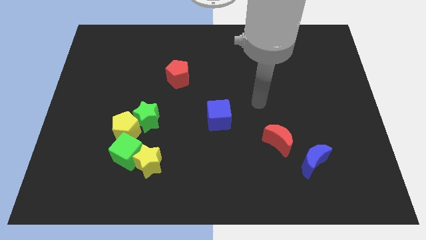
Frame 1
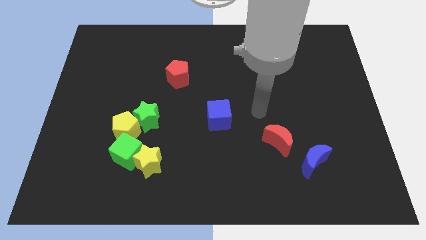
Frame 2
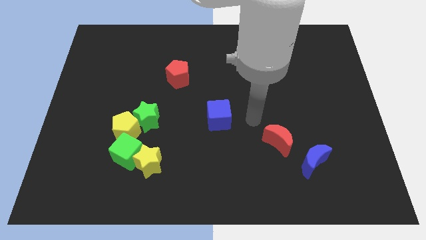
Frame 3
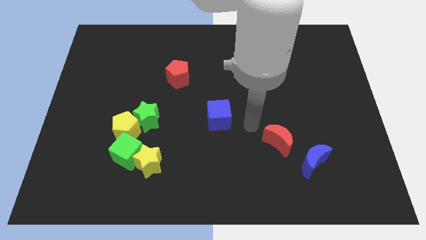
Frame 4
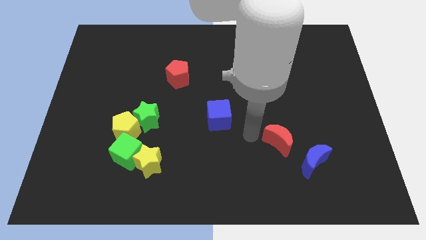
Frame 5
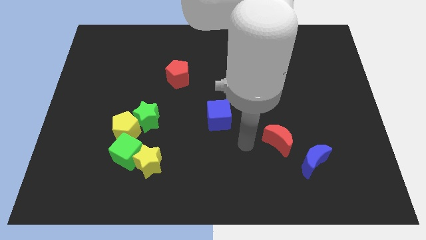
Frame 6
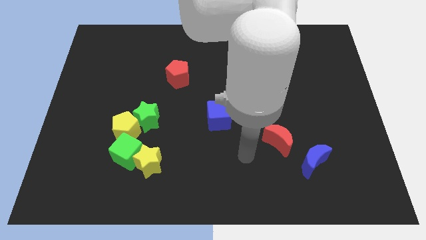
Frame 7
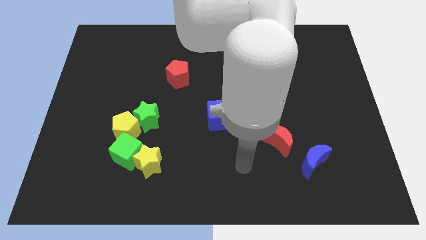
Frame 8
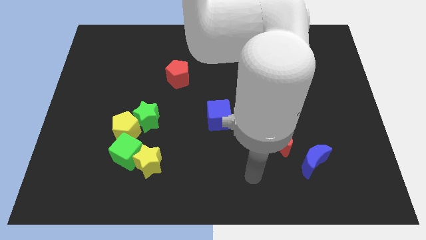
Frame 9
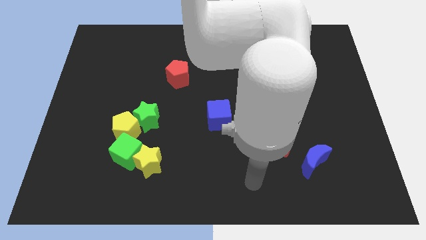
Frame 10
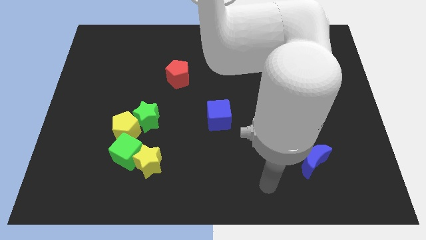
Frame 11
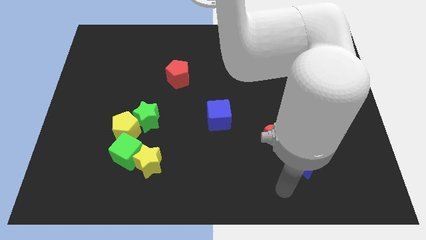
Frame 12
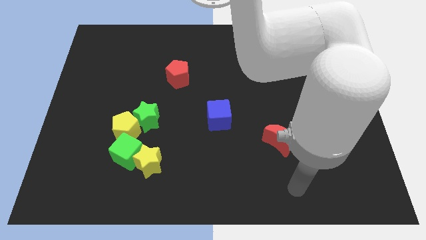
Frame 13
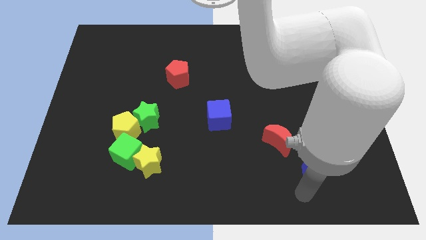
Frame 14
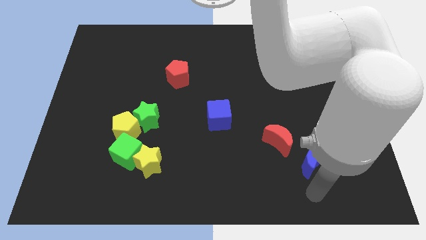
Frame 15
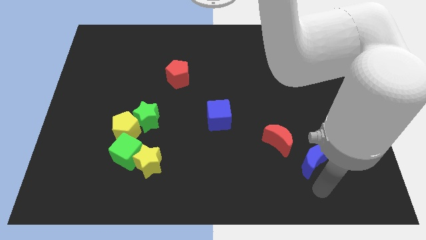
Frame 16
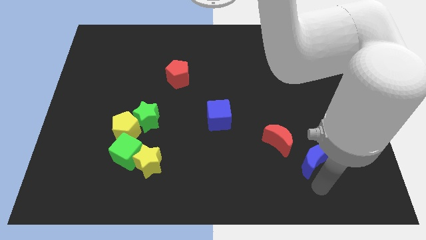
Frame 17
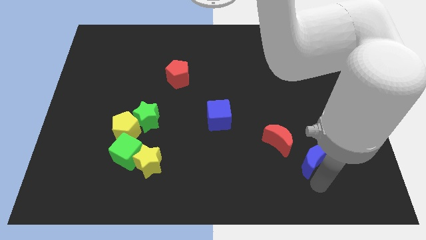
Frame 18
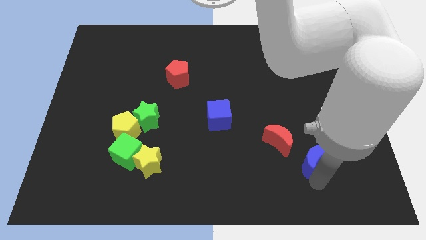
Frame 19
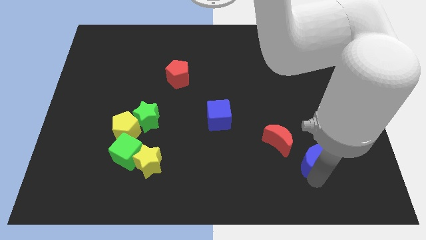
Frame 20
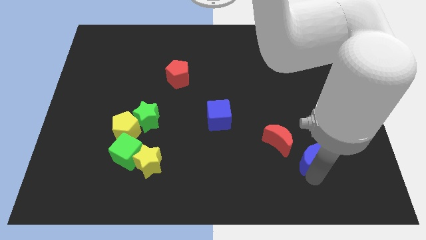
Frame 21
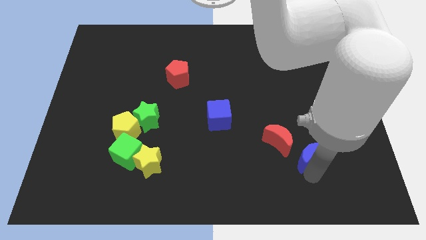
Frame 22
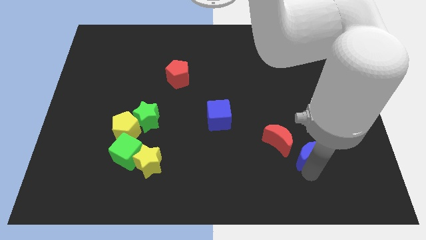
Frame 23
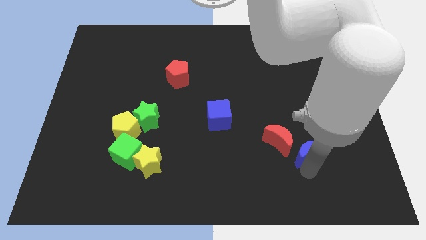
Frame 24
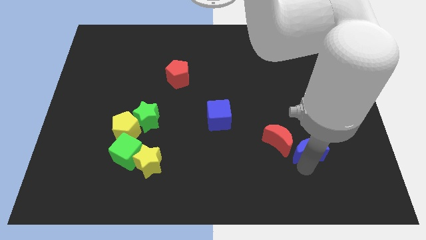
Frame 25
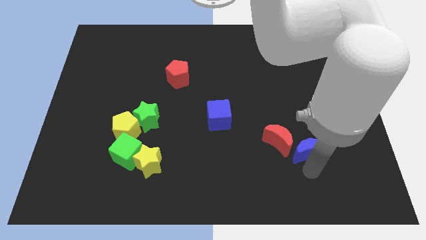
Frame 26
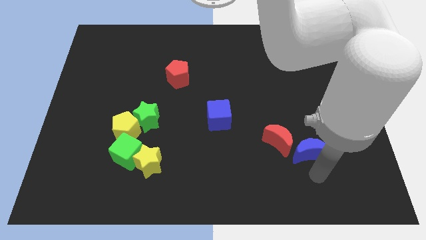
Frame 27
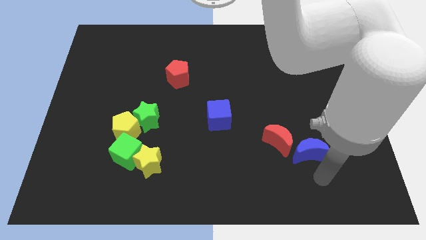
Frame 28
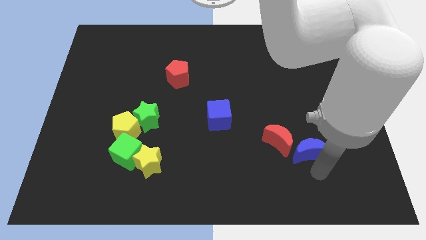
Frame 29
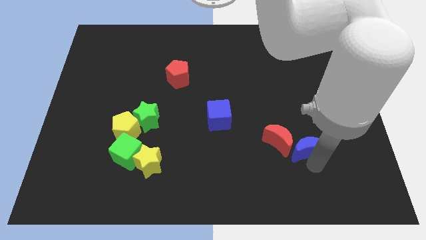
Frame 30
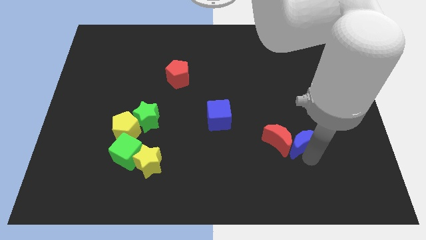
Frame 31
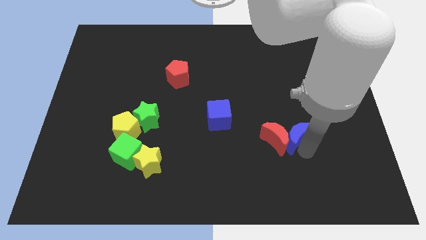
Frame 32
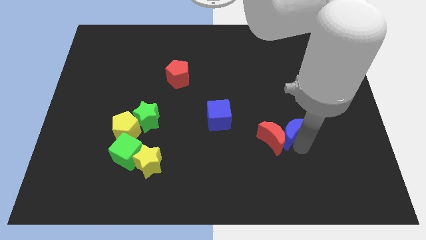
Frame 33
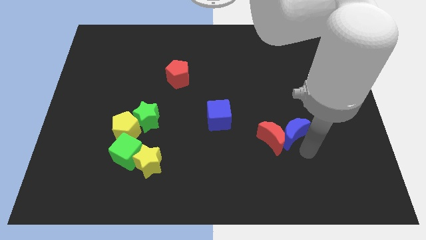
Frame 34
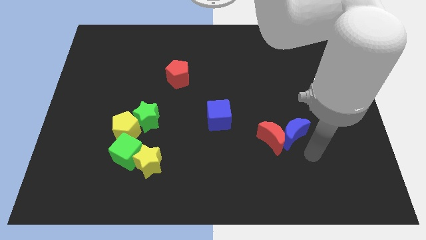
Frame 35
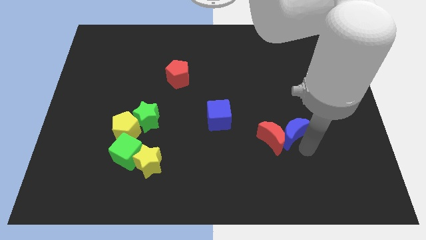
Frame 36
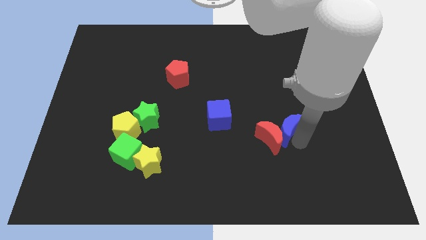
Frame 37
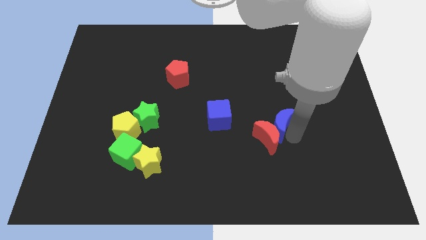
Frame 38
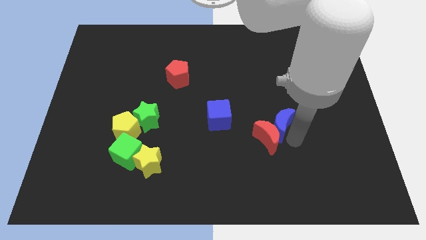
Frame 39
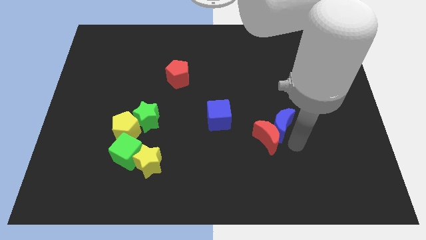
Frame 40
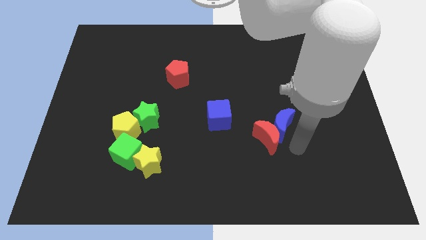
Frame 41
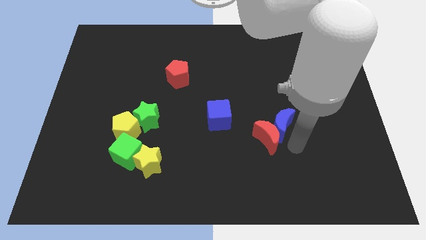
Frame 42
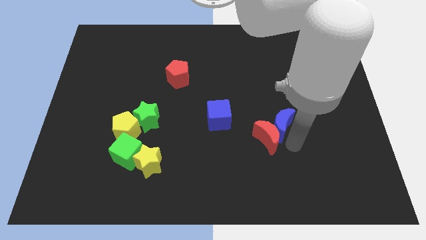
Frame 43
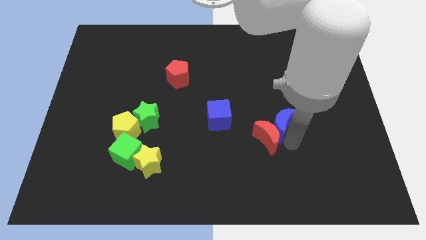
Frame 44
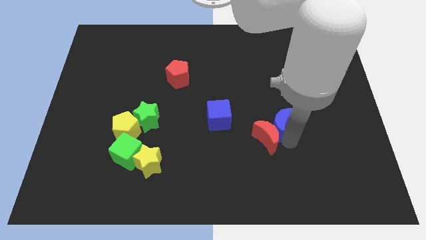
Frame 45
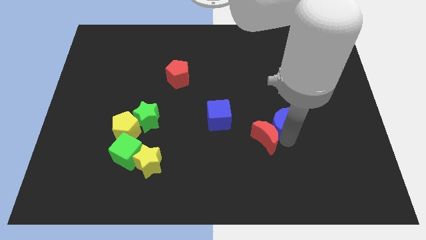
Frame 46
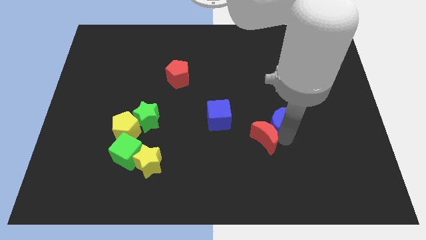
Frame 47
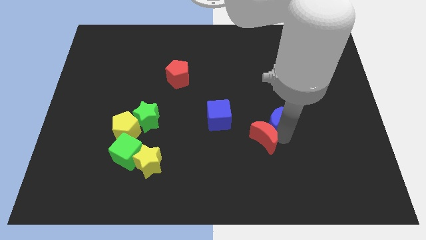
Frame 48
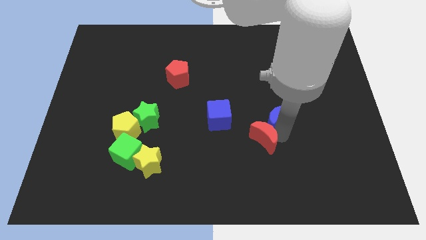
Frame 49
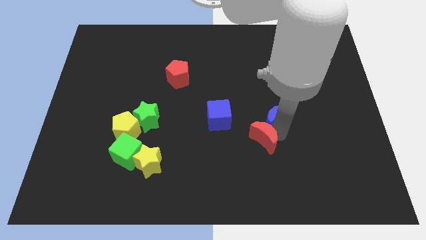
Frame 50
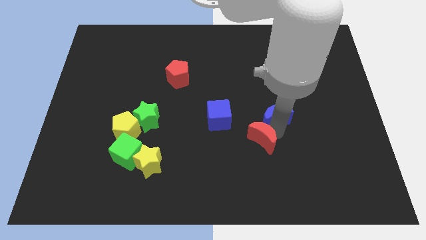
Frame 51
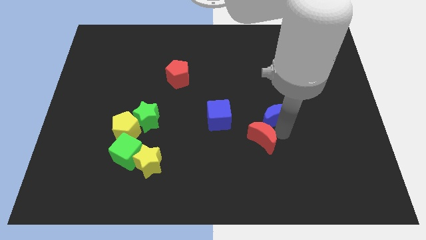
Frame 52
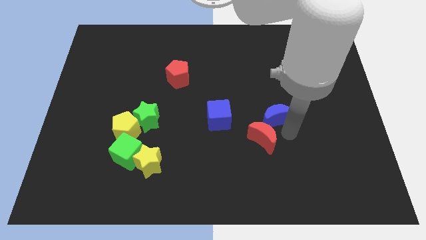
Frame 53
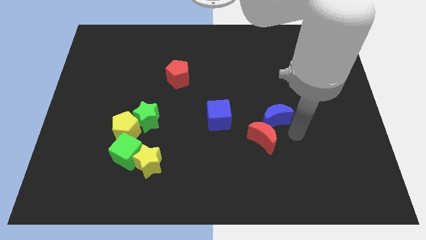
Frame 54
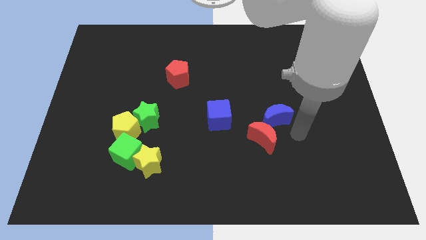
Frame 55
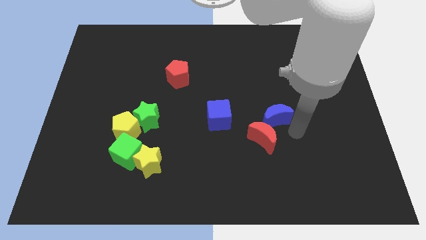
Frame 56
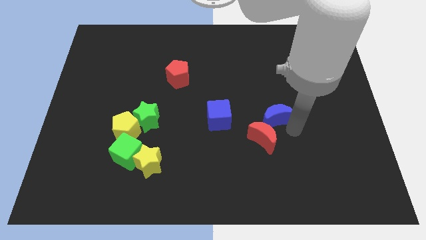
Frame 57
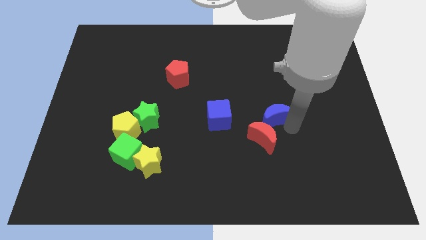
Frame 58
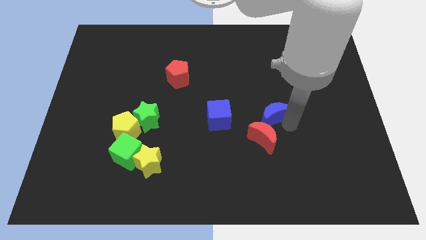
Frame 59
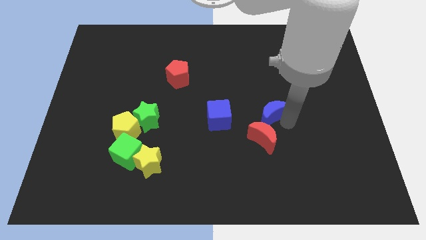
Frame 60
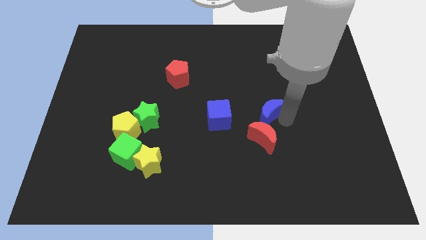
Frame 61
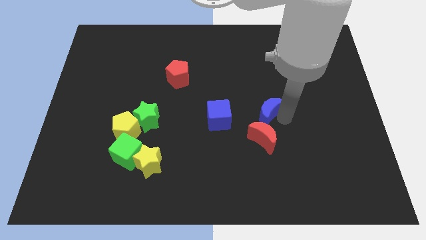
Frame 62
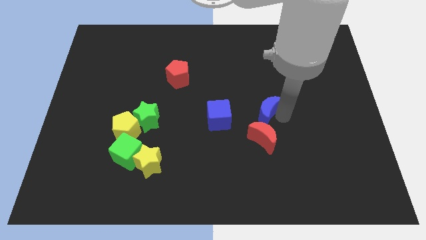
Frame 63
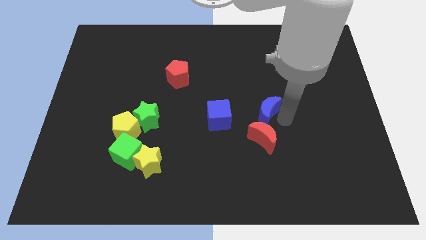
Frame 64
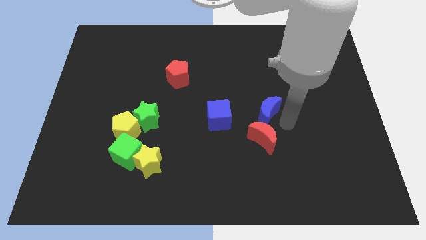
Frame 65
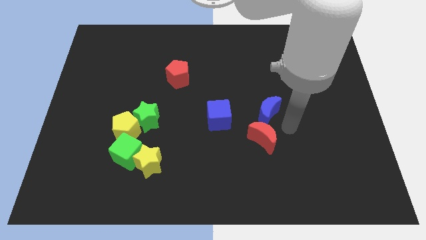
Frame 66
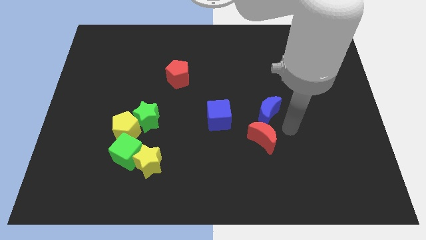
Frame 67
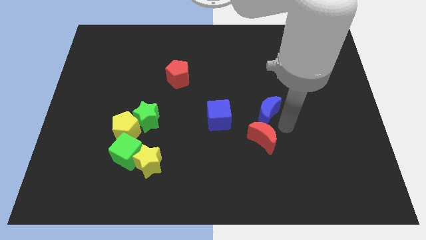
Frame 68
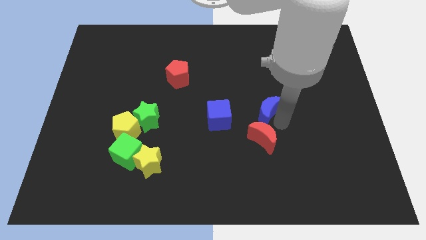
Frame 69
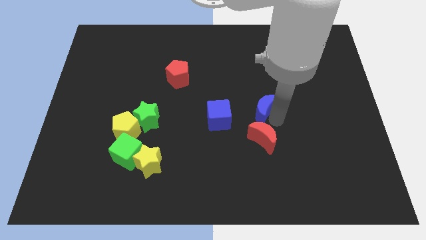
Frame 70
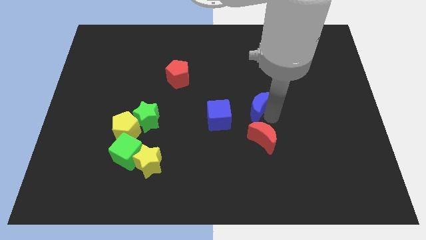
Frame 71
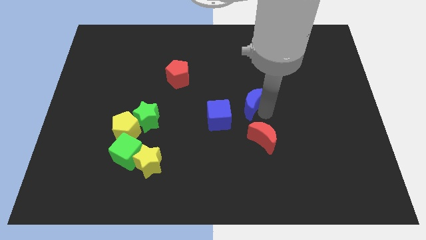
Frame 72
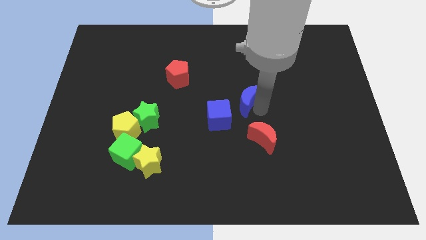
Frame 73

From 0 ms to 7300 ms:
slide the blue moon upwards and to the left

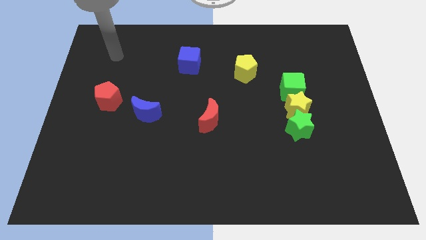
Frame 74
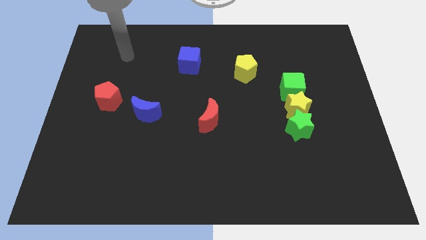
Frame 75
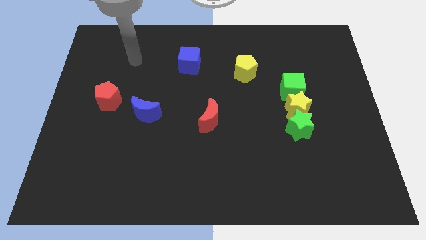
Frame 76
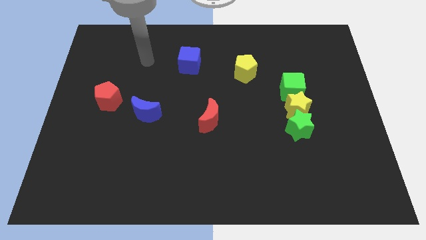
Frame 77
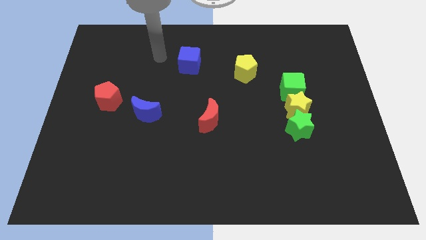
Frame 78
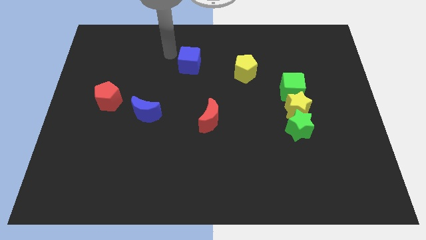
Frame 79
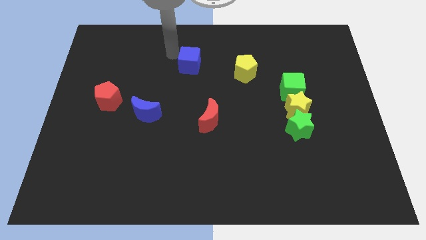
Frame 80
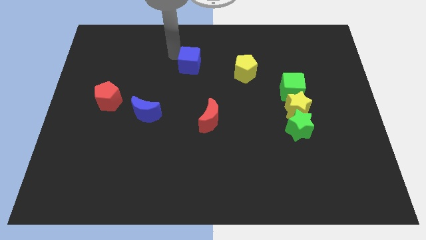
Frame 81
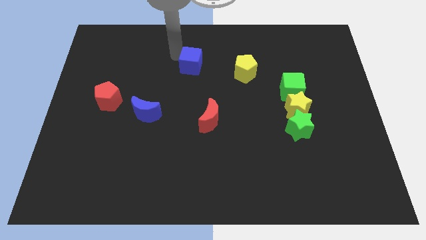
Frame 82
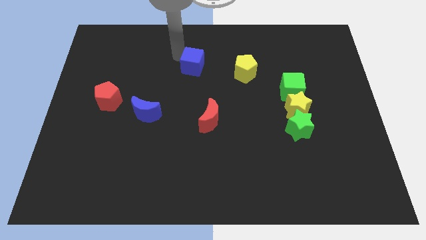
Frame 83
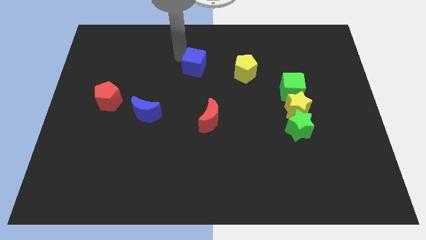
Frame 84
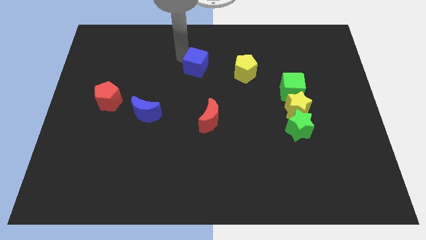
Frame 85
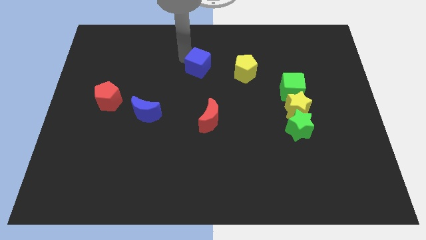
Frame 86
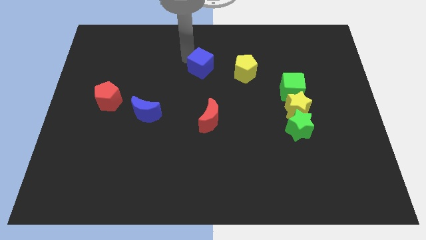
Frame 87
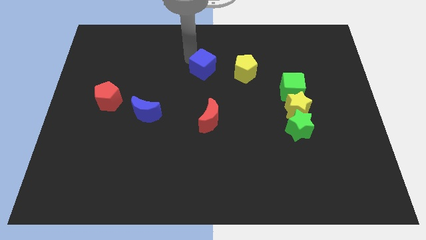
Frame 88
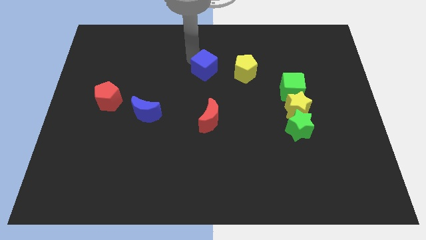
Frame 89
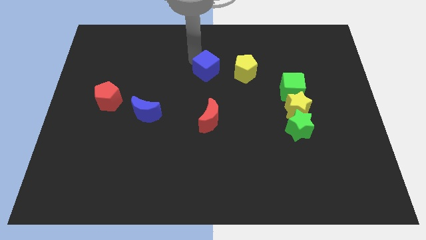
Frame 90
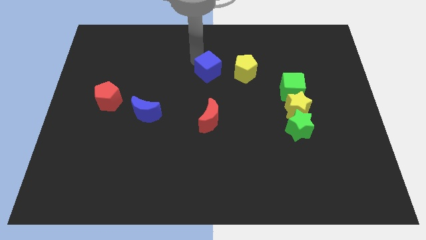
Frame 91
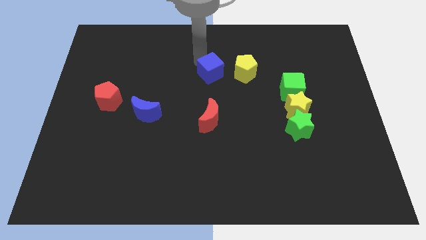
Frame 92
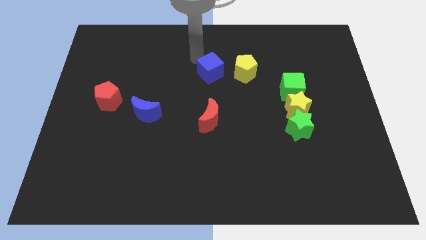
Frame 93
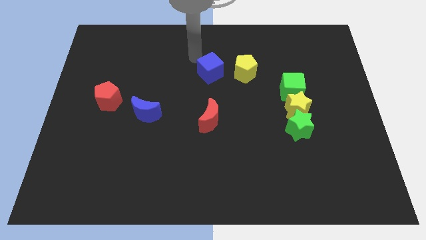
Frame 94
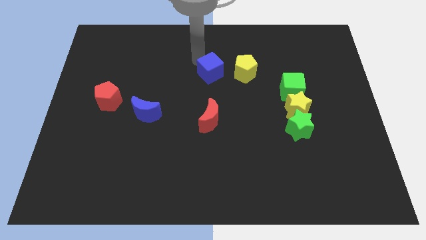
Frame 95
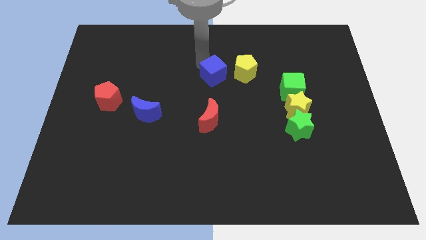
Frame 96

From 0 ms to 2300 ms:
slide the blue cube downwards and to the right diagonally a little
